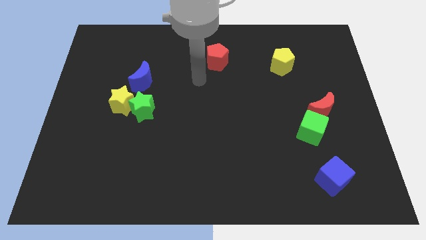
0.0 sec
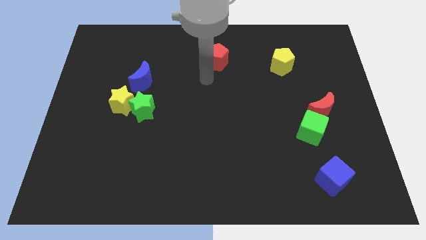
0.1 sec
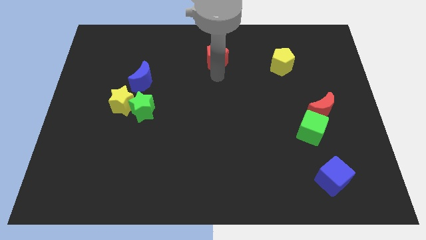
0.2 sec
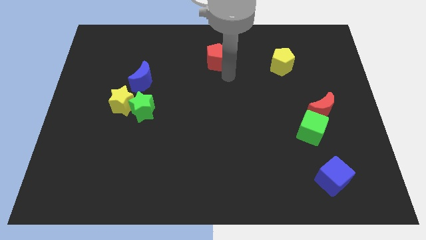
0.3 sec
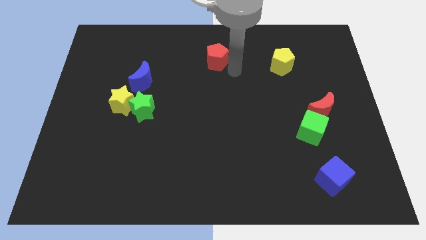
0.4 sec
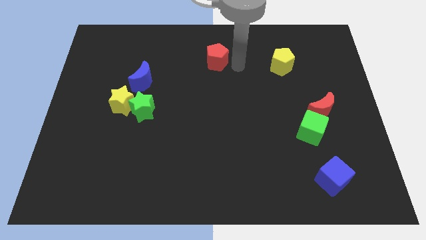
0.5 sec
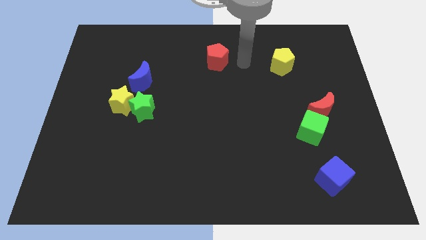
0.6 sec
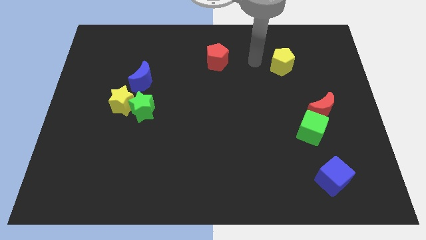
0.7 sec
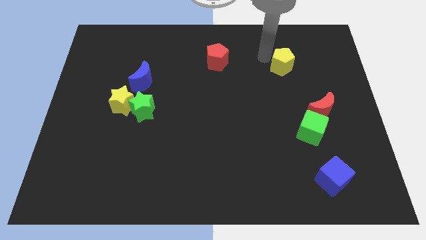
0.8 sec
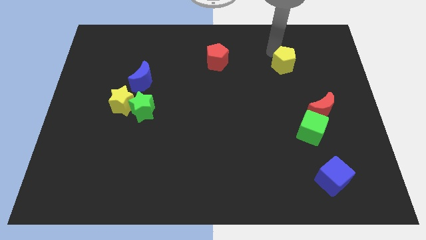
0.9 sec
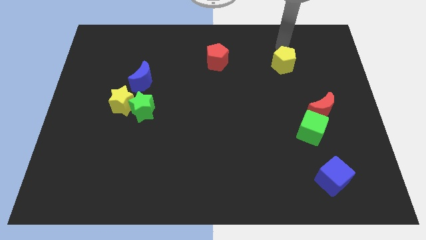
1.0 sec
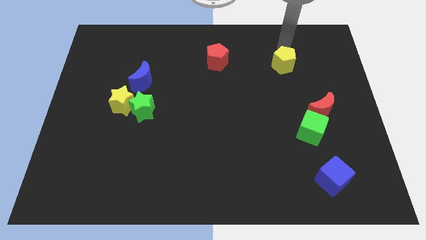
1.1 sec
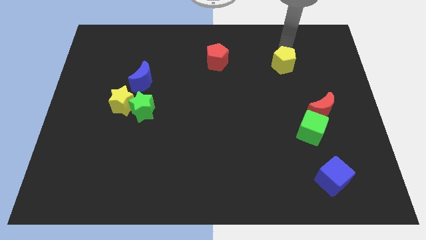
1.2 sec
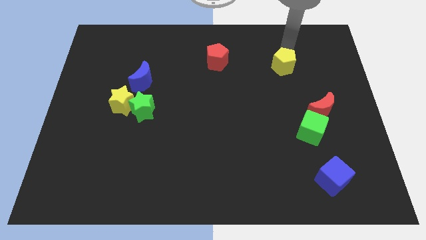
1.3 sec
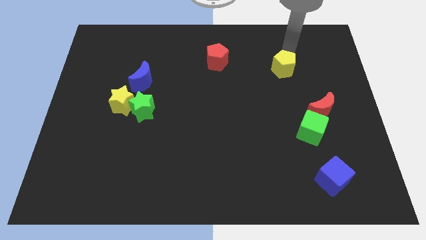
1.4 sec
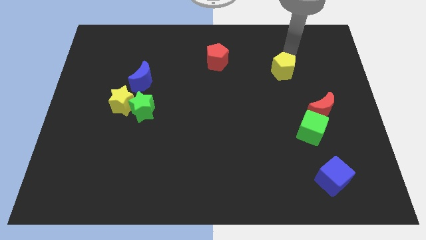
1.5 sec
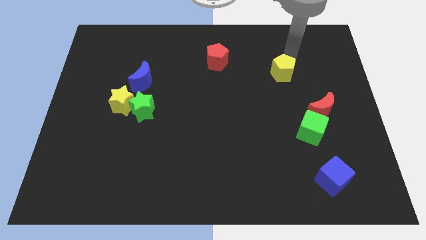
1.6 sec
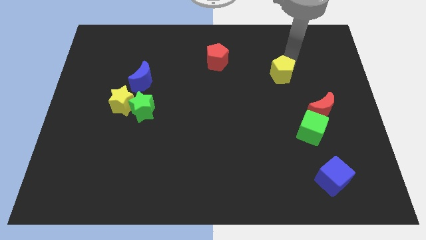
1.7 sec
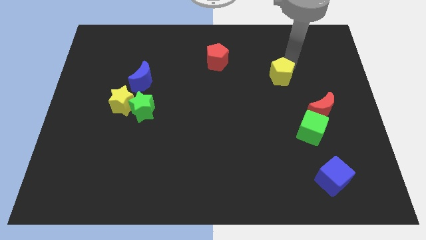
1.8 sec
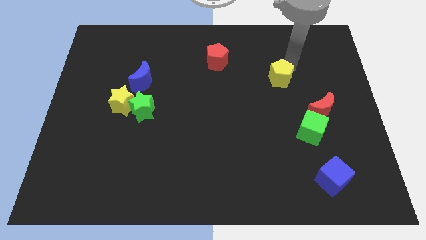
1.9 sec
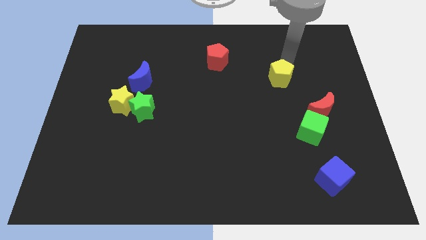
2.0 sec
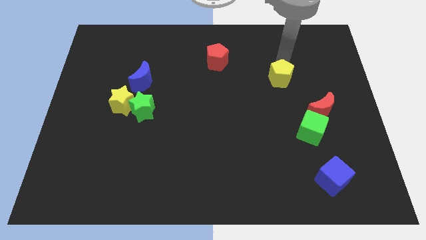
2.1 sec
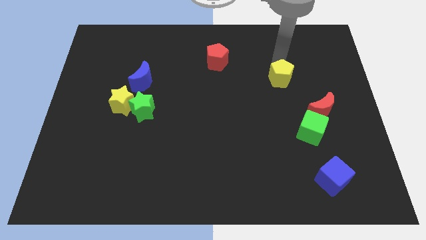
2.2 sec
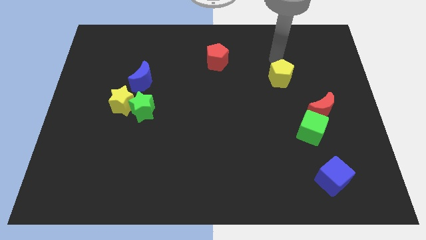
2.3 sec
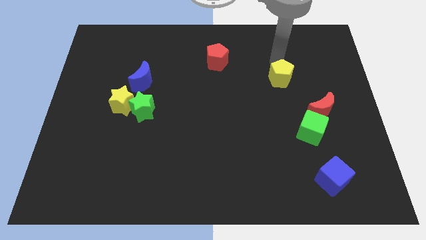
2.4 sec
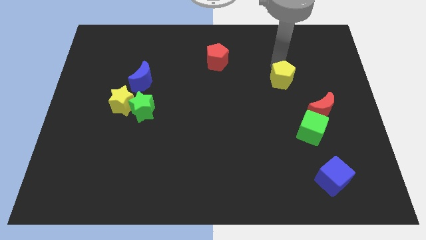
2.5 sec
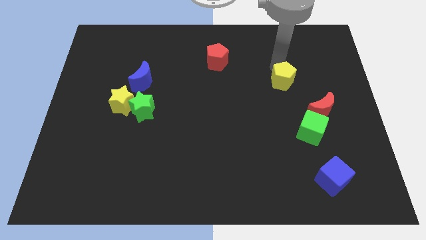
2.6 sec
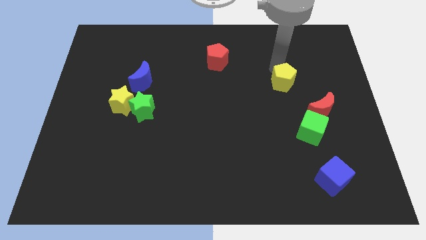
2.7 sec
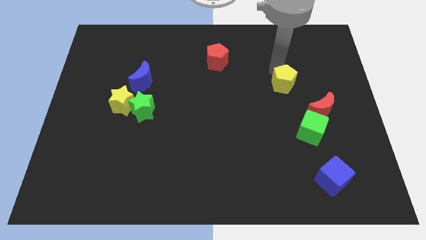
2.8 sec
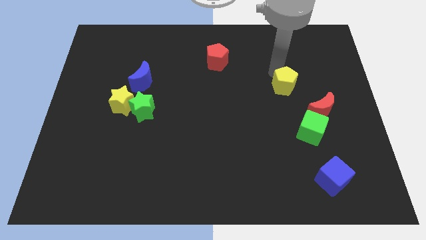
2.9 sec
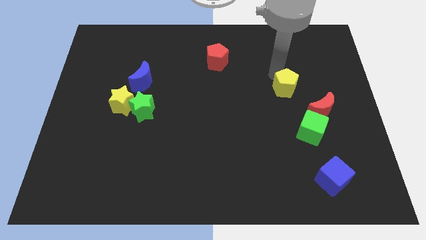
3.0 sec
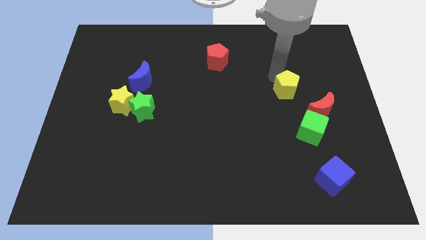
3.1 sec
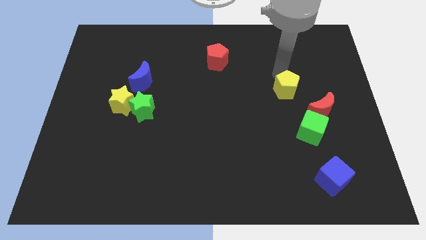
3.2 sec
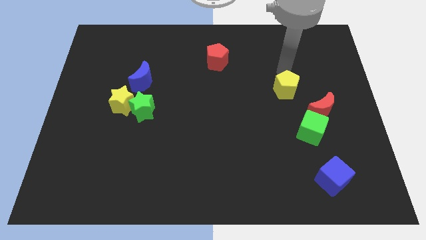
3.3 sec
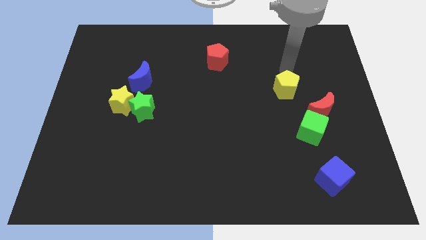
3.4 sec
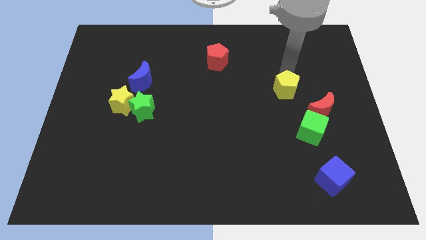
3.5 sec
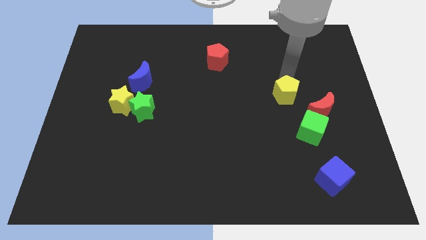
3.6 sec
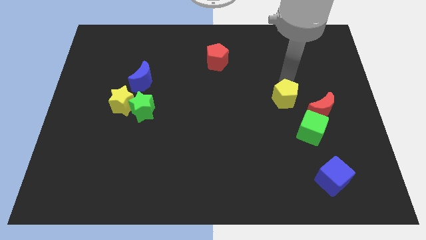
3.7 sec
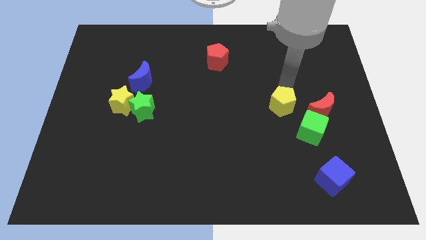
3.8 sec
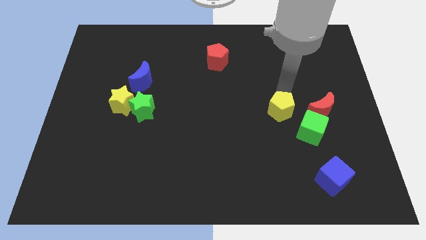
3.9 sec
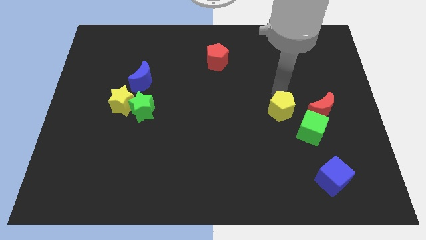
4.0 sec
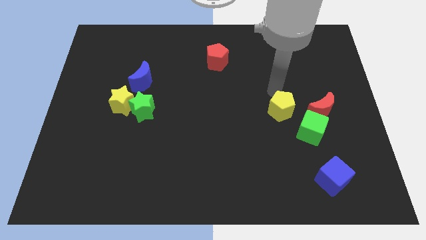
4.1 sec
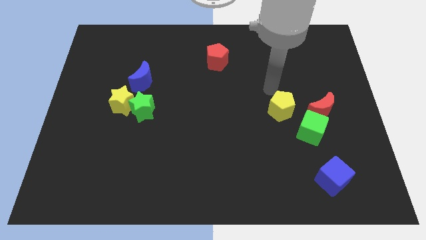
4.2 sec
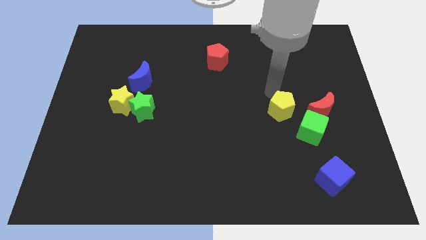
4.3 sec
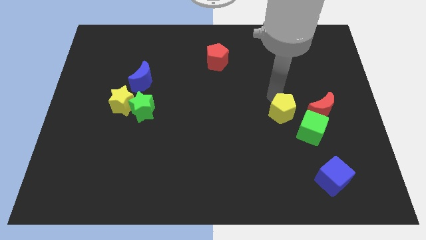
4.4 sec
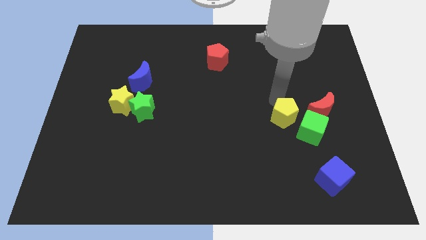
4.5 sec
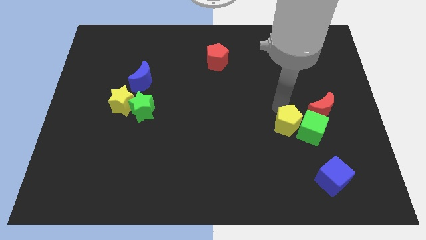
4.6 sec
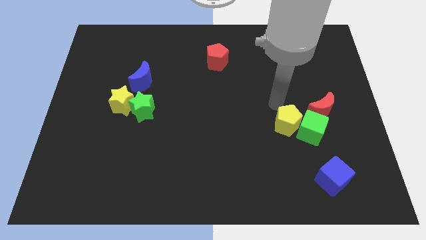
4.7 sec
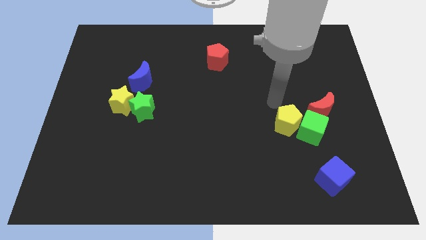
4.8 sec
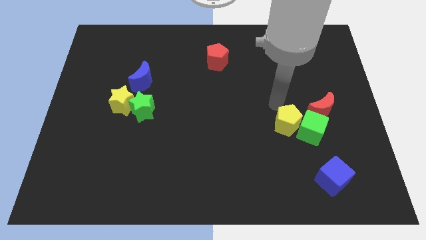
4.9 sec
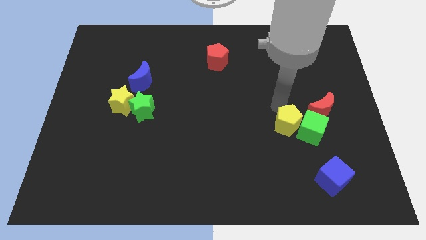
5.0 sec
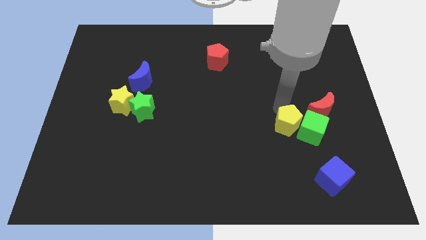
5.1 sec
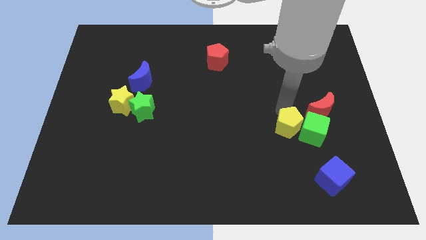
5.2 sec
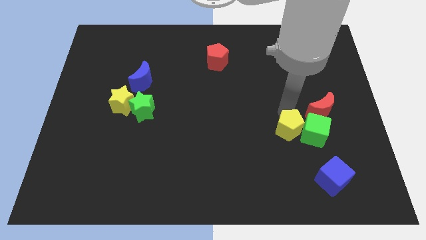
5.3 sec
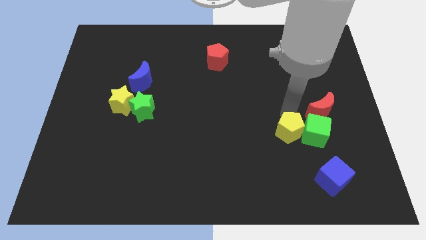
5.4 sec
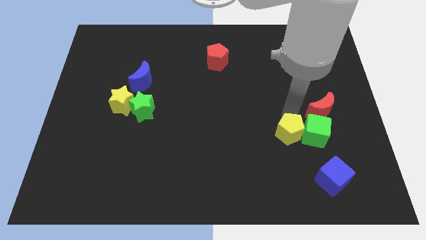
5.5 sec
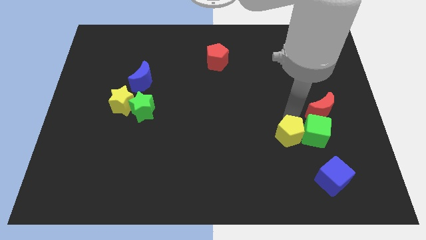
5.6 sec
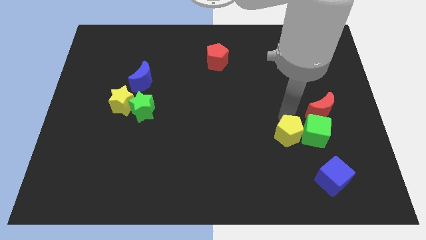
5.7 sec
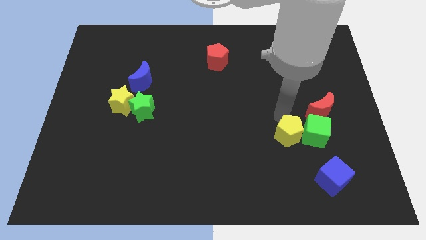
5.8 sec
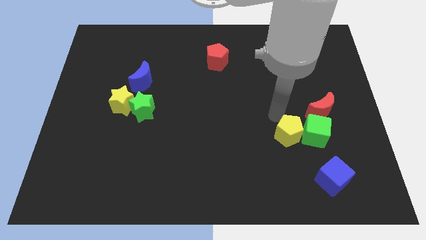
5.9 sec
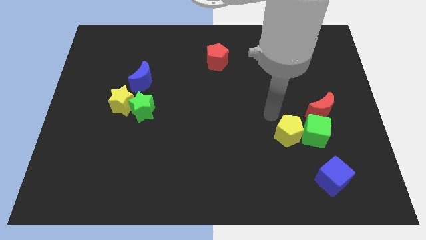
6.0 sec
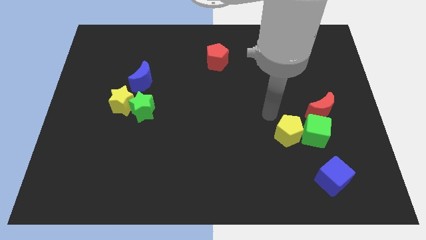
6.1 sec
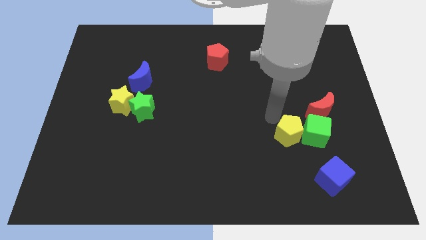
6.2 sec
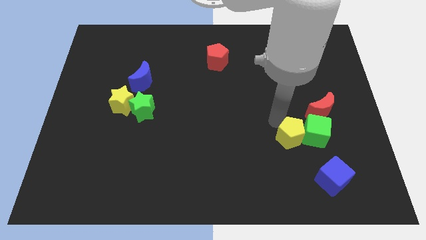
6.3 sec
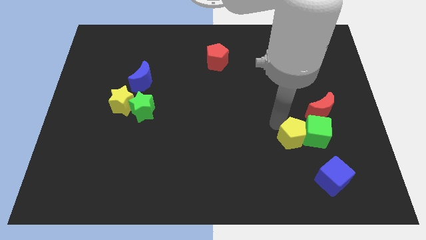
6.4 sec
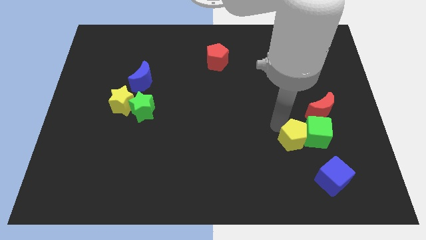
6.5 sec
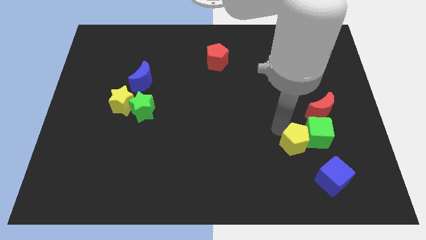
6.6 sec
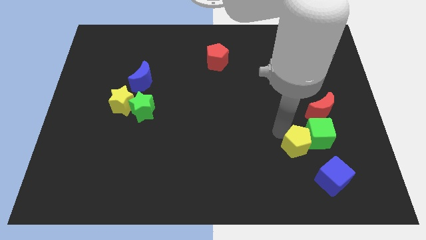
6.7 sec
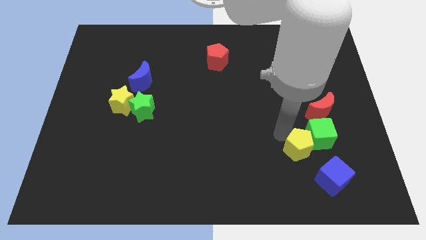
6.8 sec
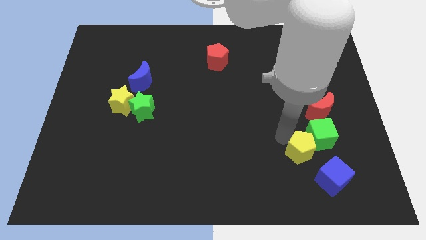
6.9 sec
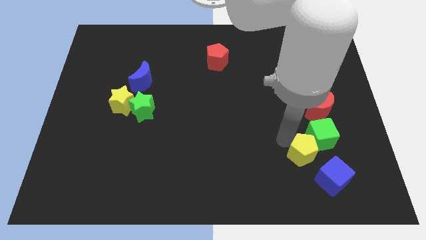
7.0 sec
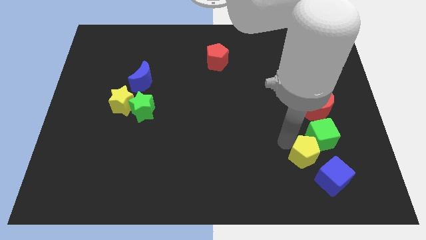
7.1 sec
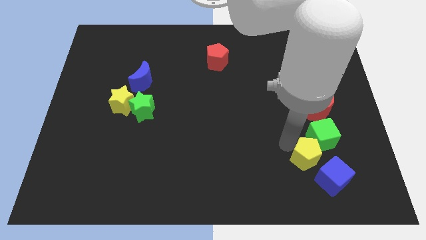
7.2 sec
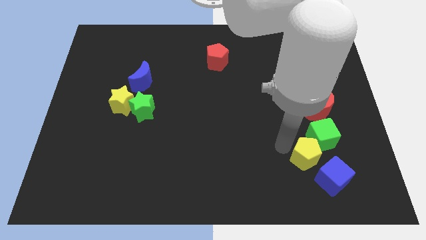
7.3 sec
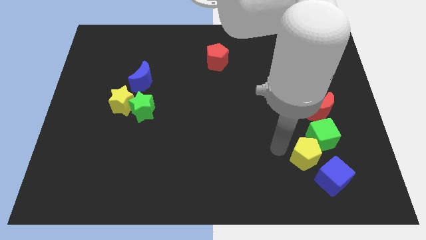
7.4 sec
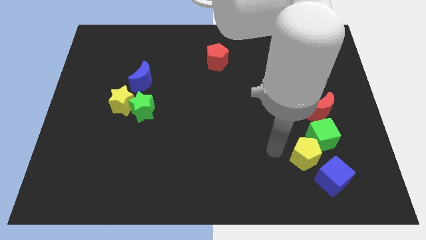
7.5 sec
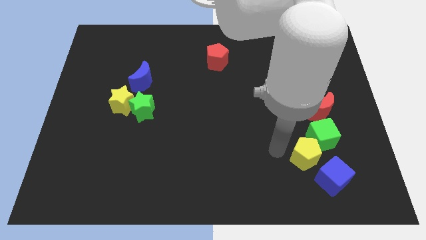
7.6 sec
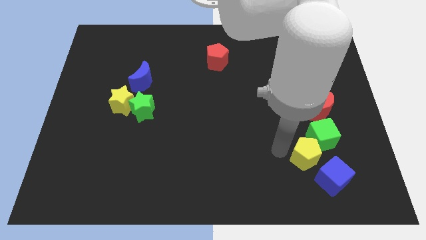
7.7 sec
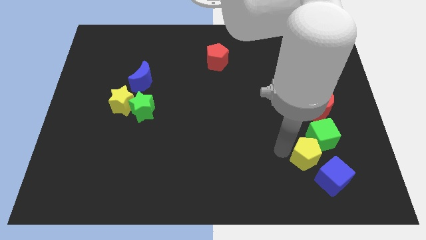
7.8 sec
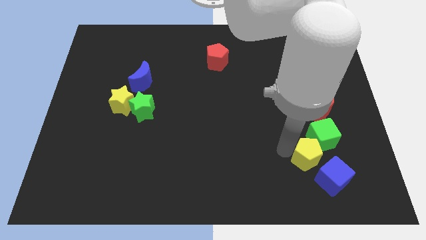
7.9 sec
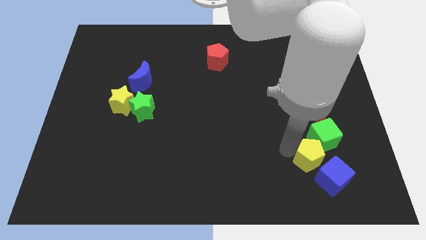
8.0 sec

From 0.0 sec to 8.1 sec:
slide the yellow pentagon towards the blue cube

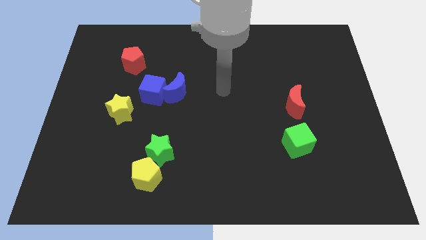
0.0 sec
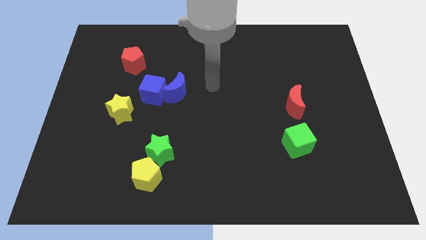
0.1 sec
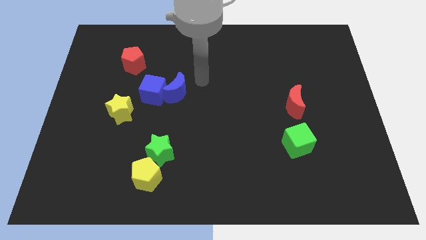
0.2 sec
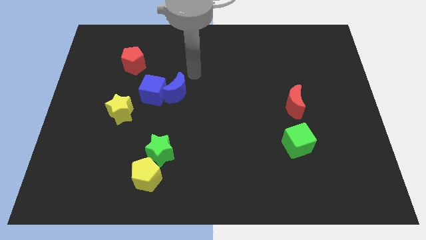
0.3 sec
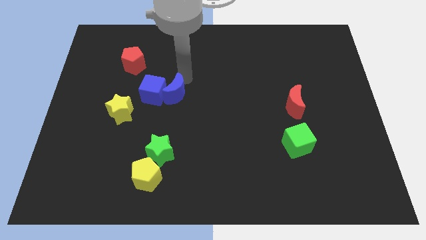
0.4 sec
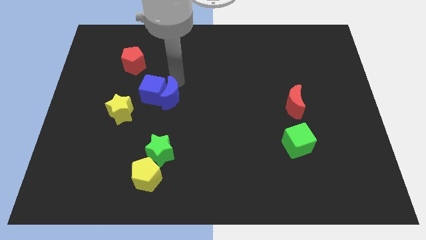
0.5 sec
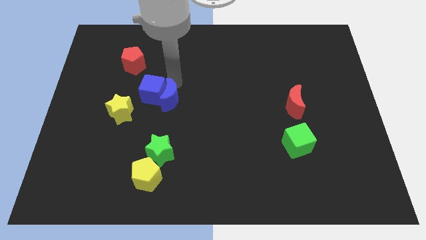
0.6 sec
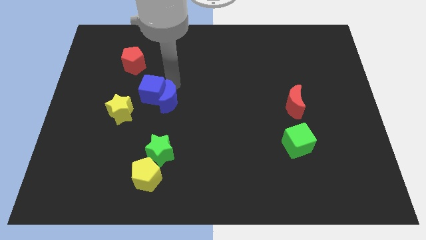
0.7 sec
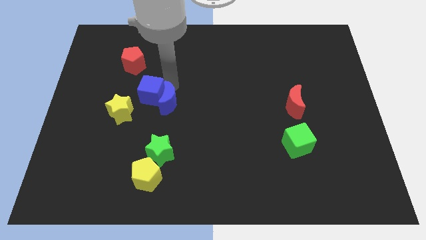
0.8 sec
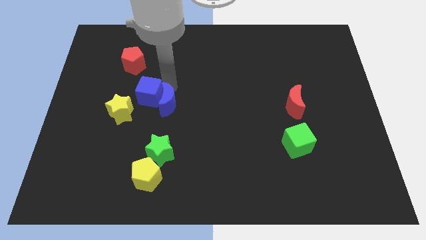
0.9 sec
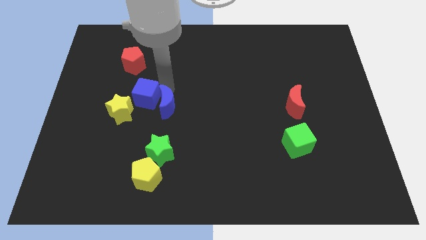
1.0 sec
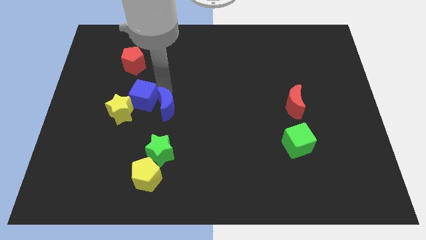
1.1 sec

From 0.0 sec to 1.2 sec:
push the blue cube next to the yellow star
